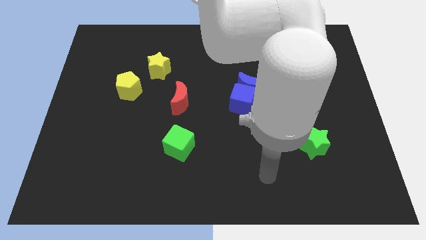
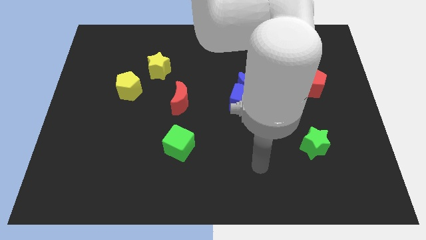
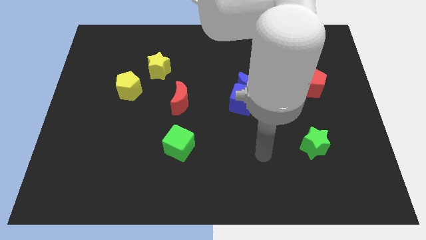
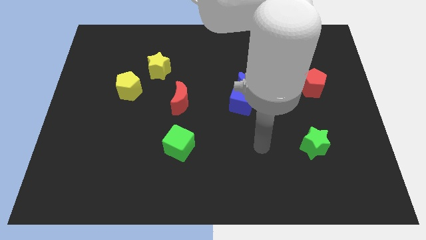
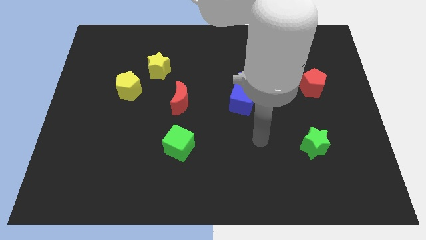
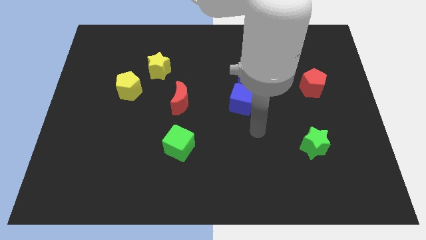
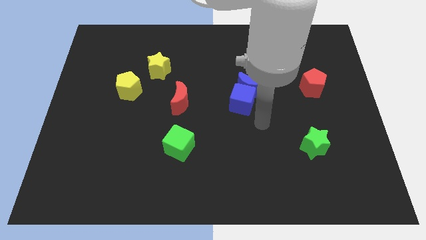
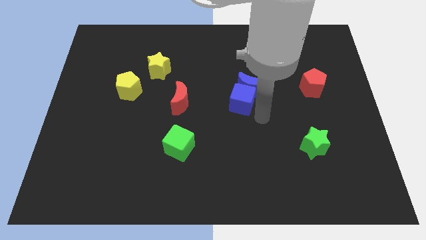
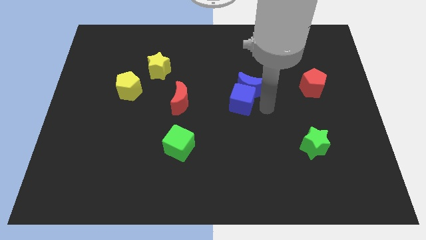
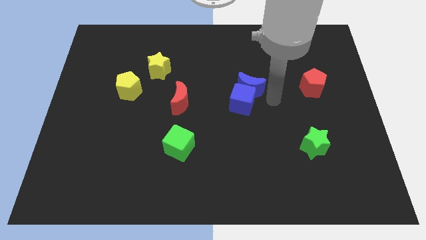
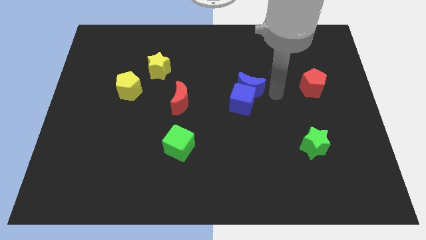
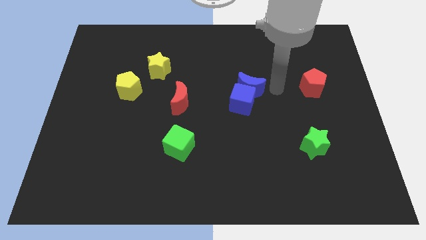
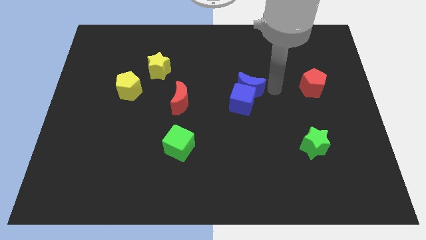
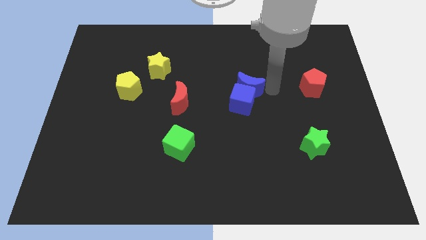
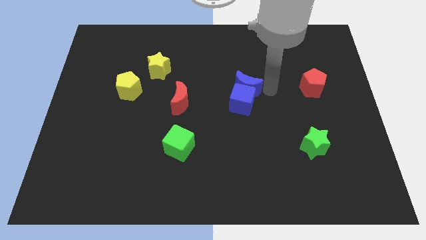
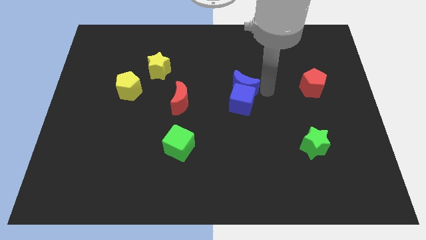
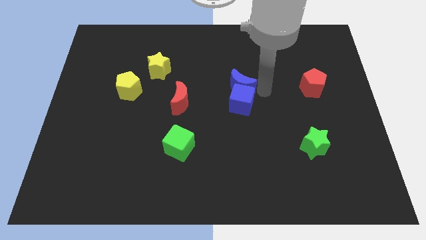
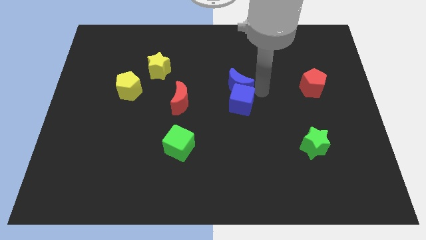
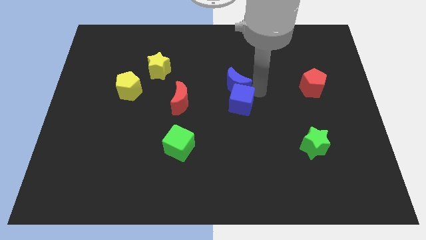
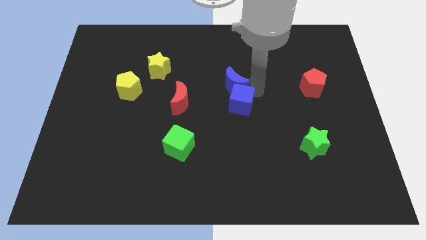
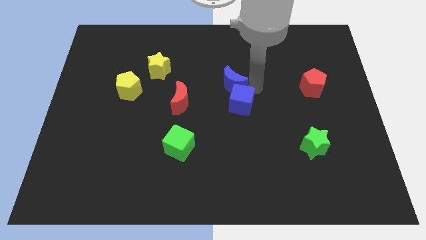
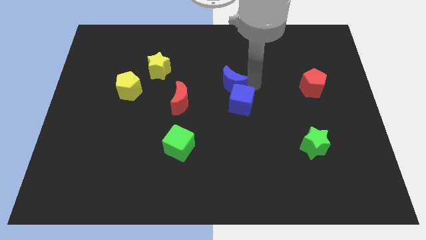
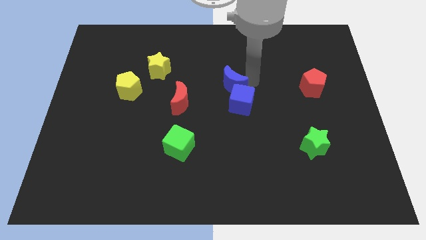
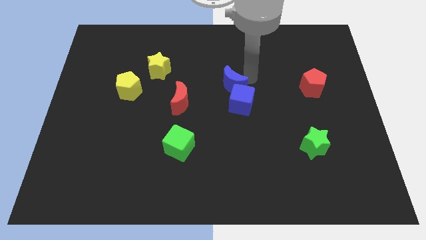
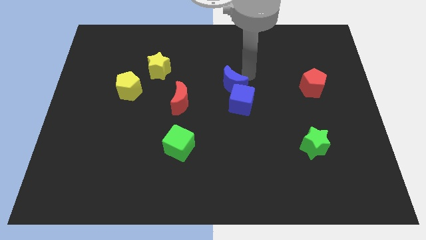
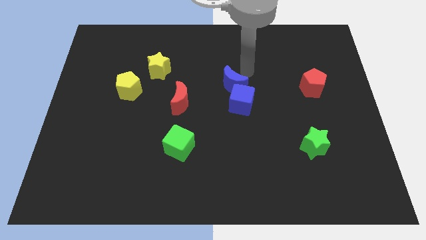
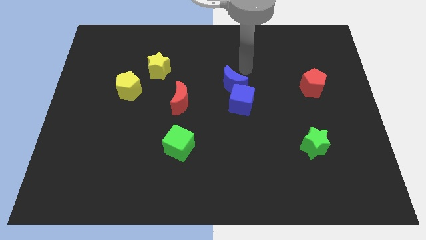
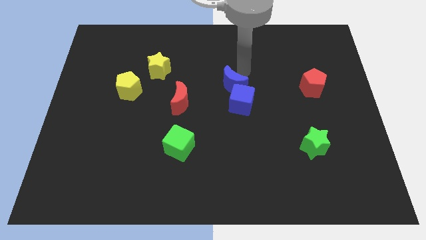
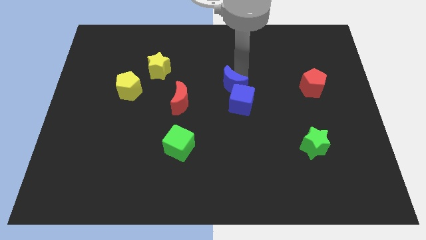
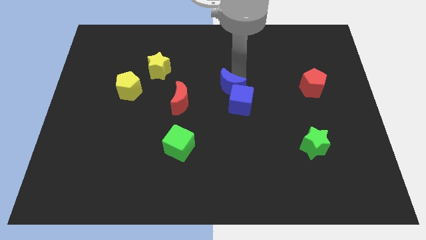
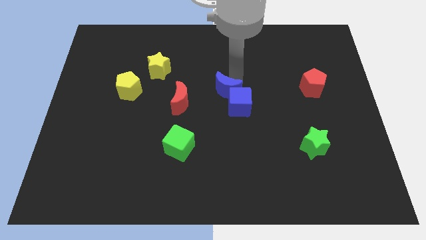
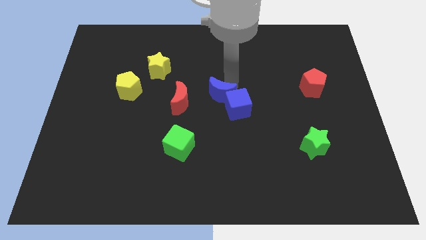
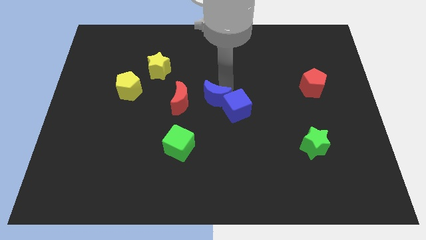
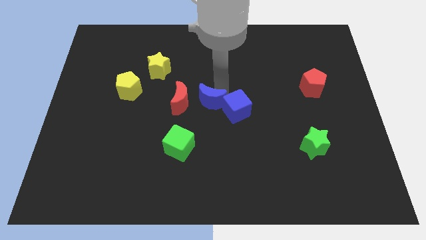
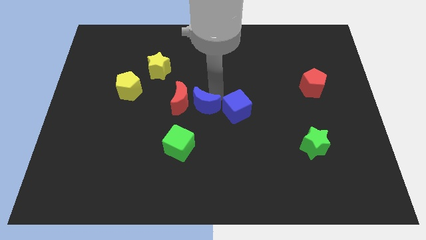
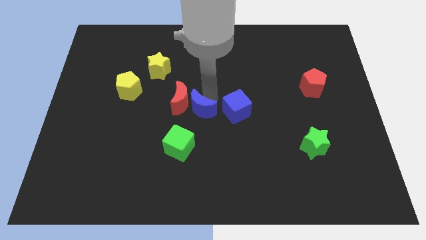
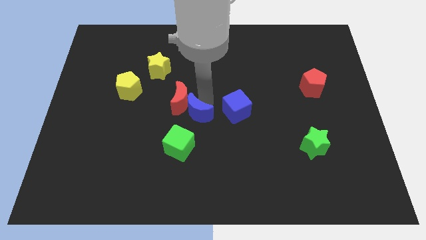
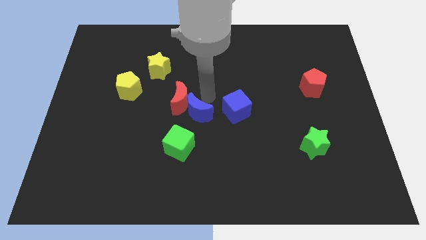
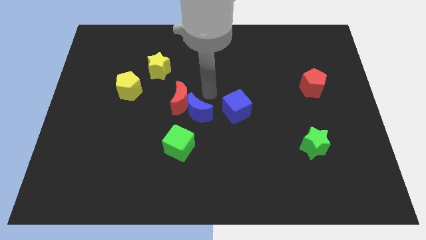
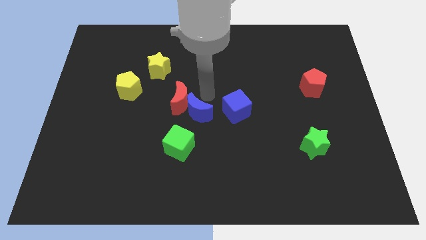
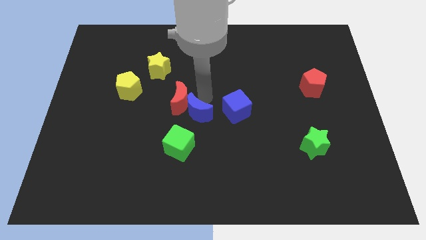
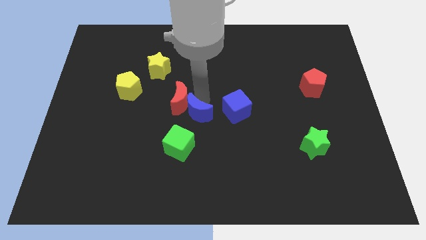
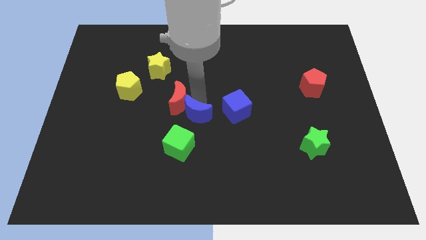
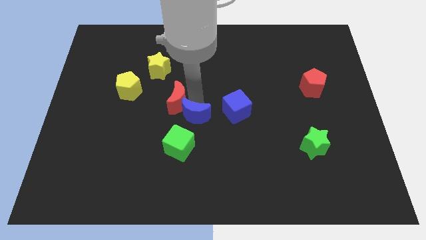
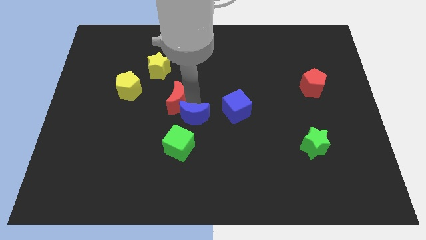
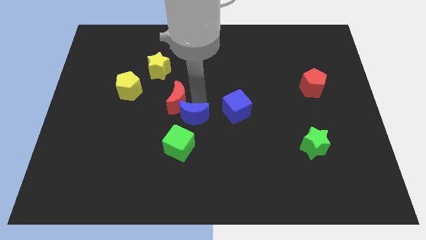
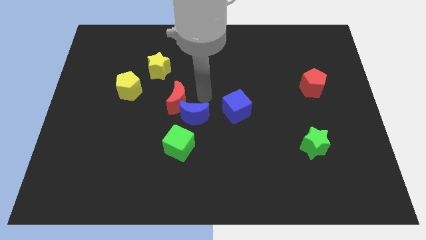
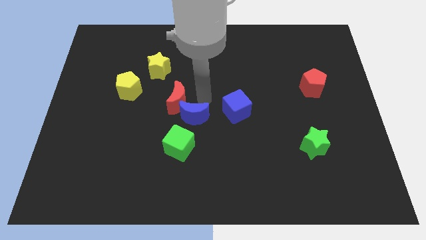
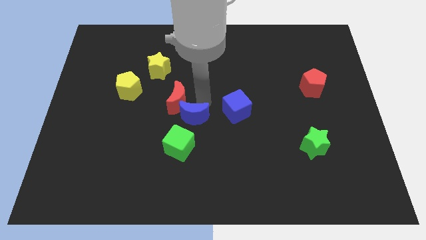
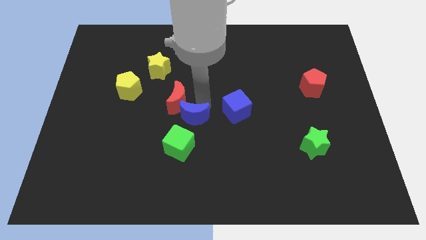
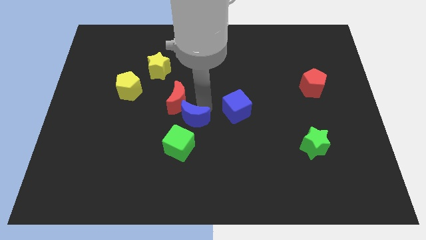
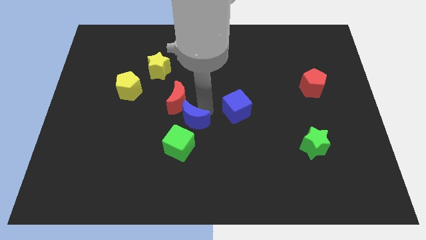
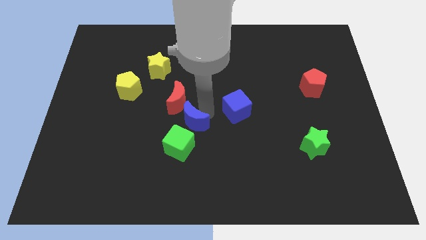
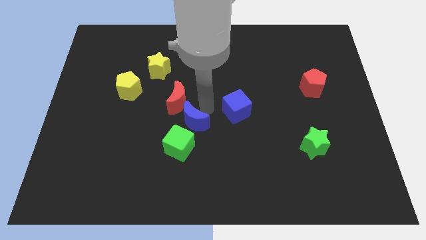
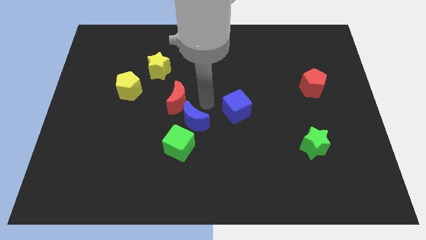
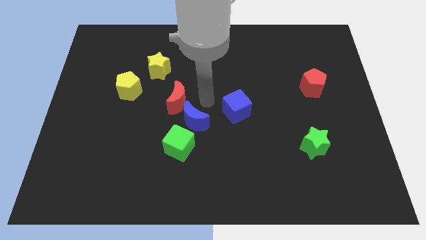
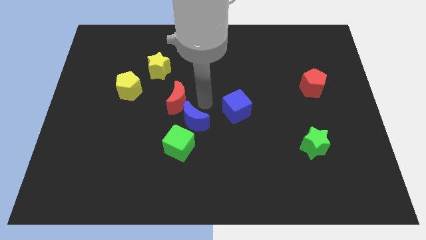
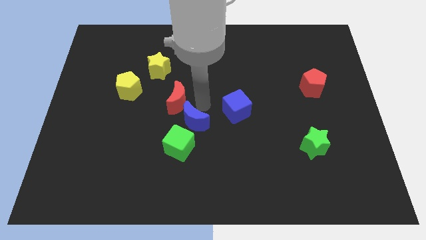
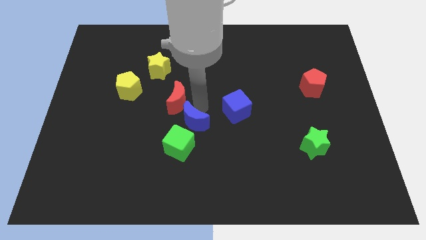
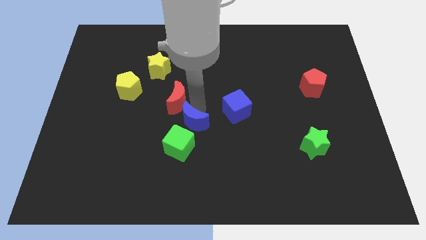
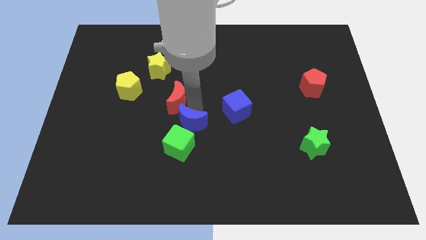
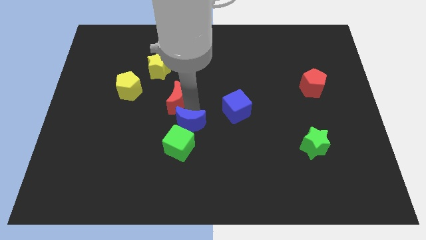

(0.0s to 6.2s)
push the blue moon next to the green cube

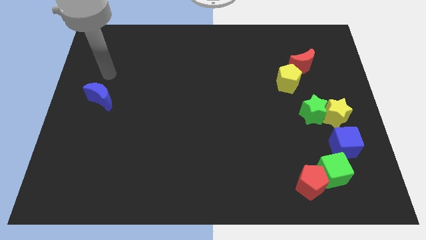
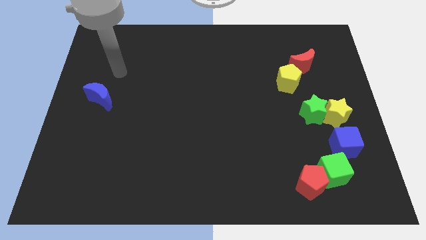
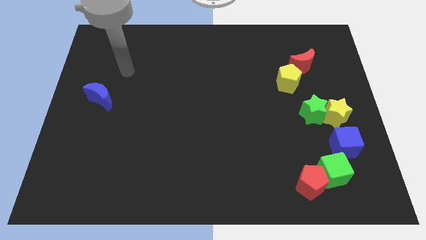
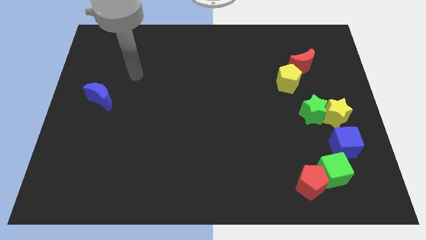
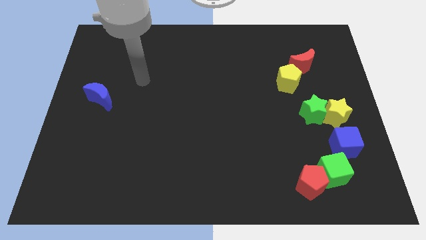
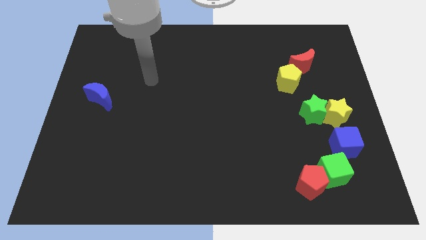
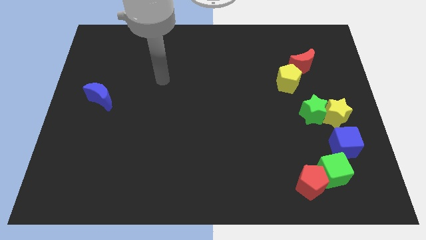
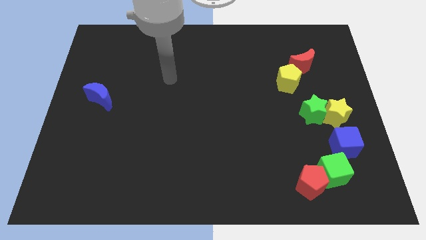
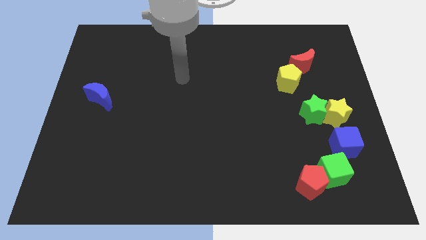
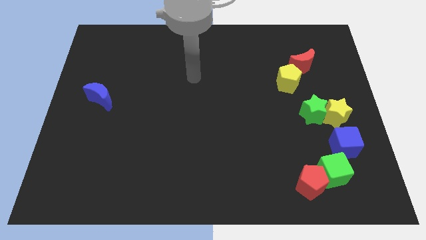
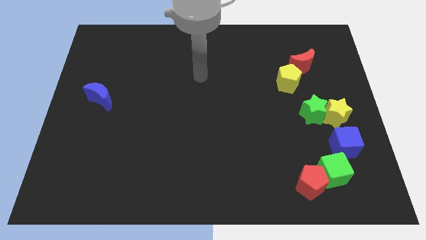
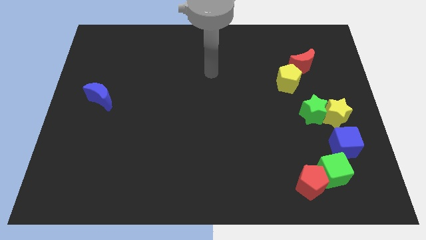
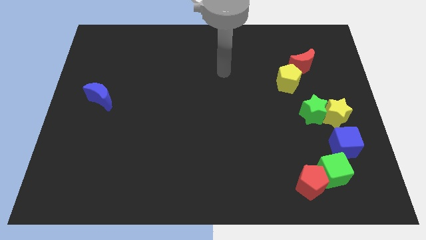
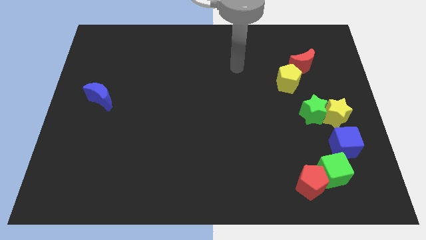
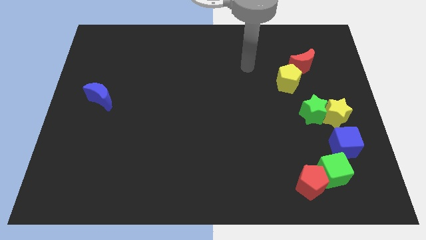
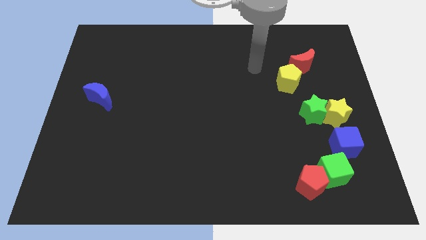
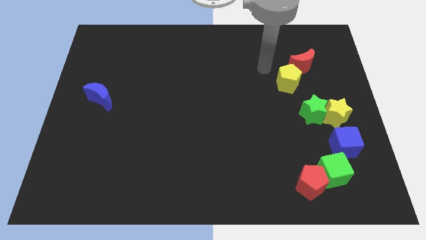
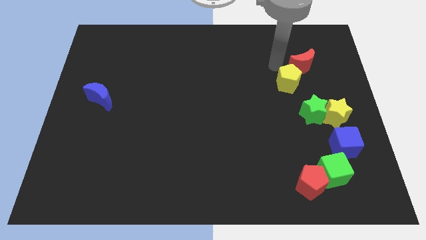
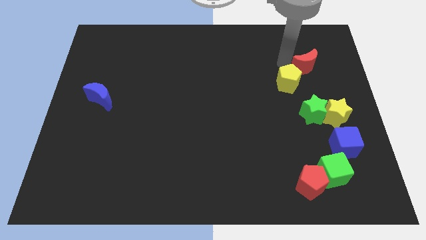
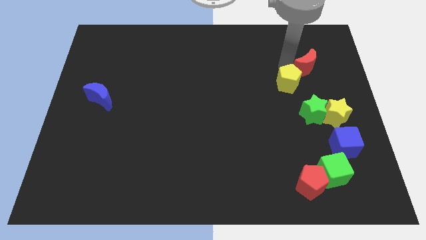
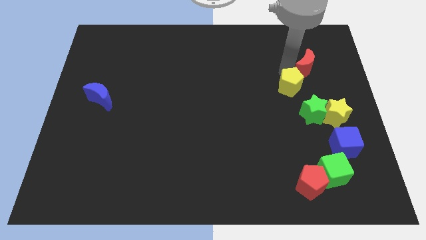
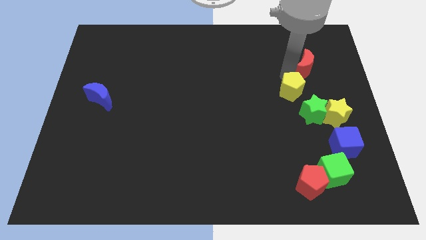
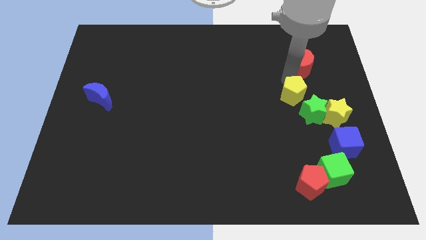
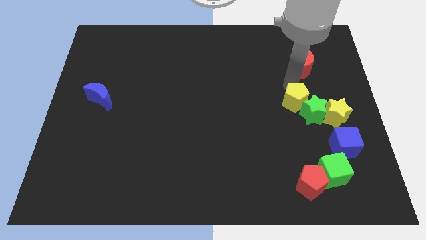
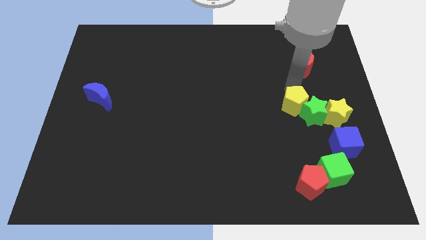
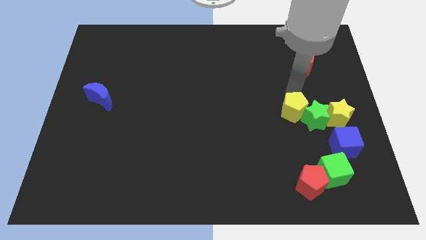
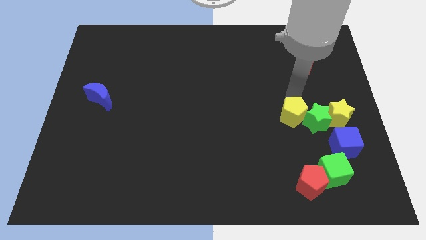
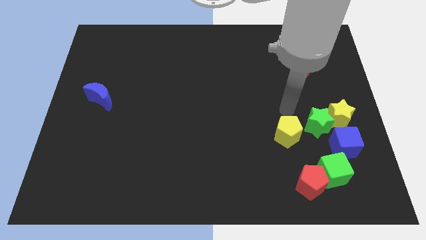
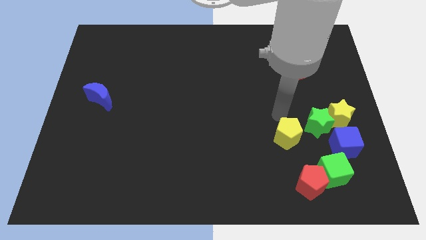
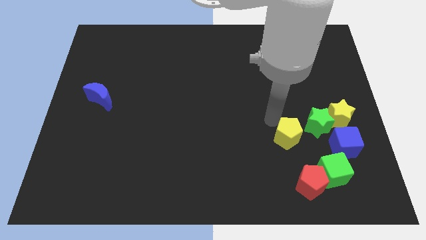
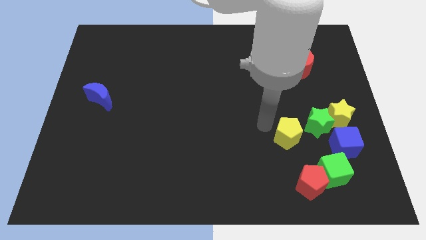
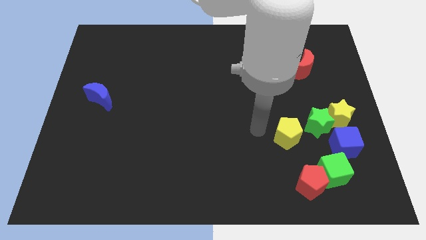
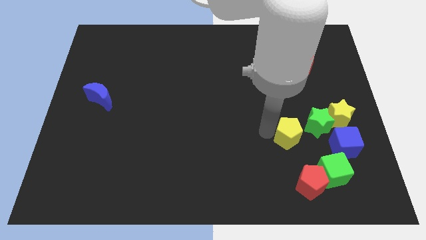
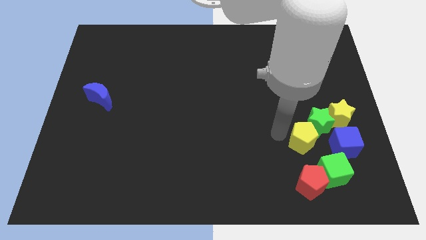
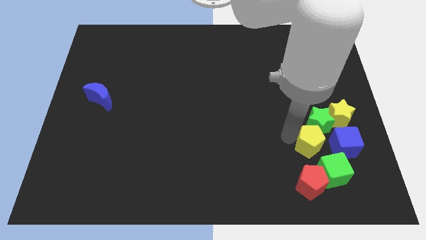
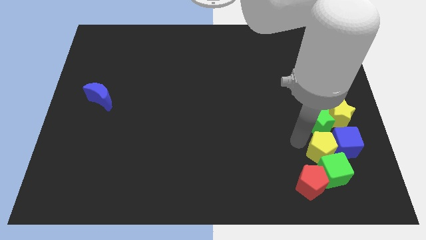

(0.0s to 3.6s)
push the yellow pentagon to the blue cube
